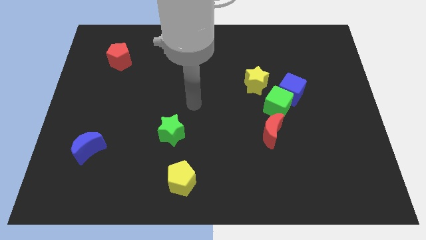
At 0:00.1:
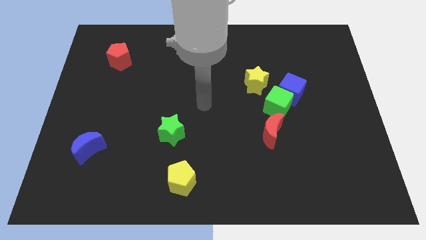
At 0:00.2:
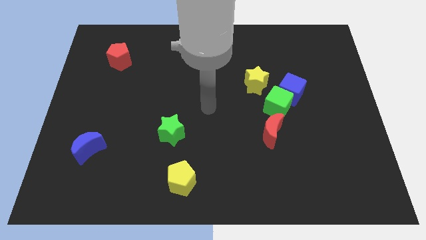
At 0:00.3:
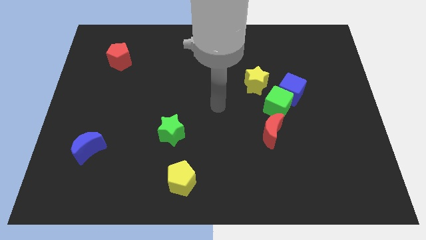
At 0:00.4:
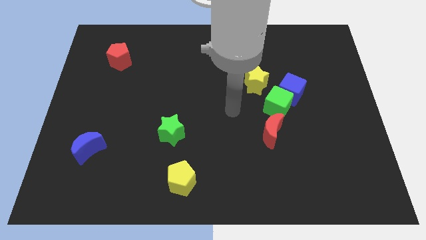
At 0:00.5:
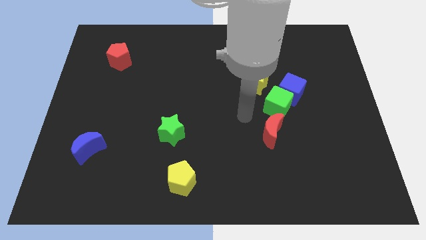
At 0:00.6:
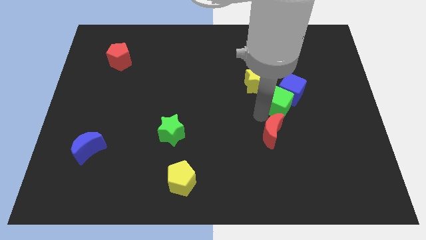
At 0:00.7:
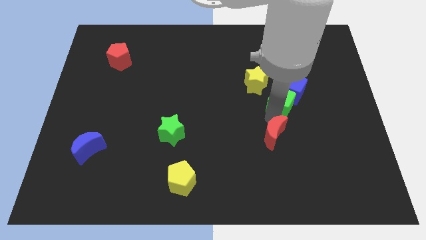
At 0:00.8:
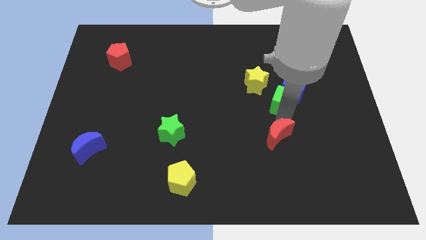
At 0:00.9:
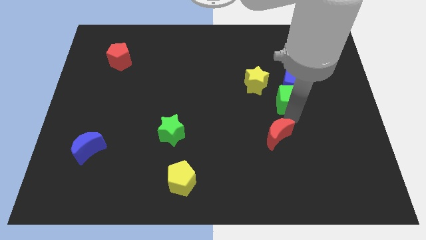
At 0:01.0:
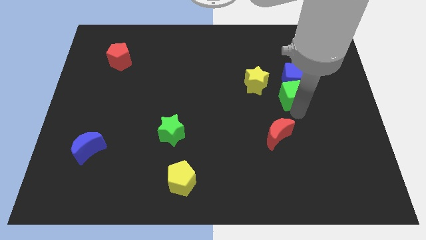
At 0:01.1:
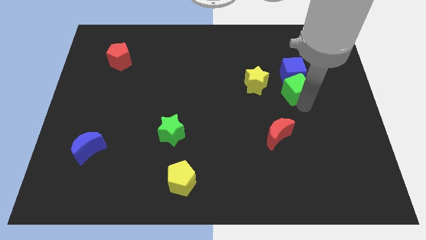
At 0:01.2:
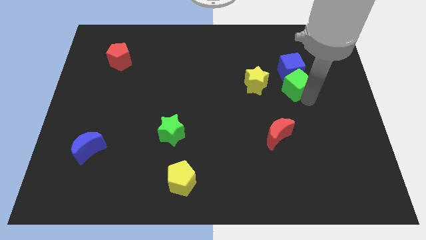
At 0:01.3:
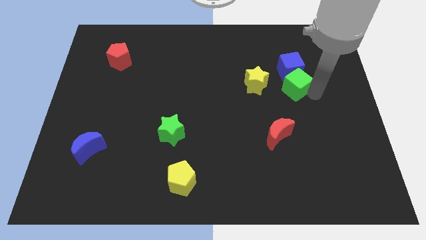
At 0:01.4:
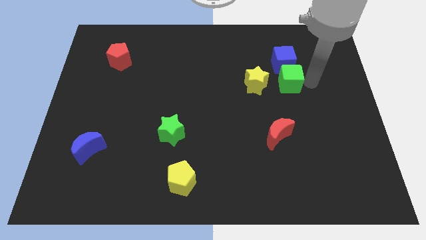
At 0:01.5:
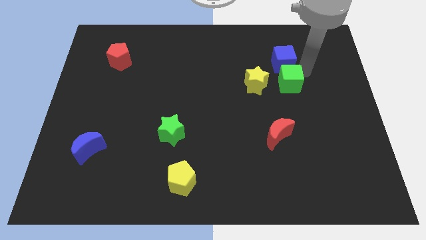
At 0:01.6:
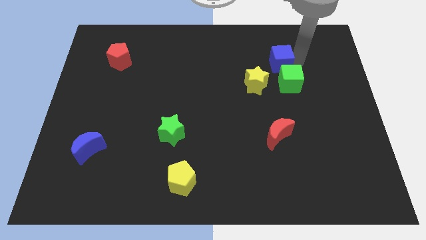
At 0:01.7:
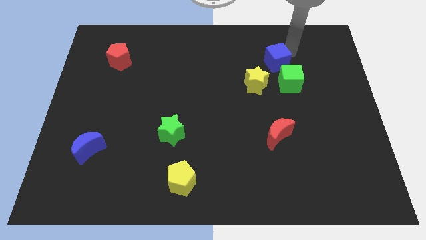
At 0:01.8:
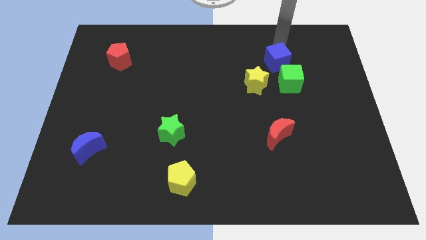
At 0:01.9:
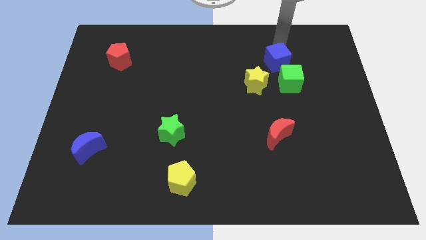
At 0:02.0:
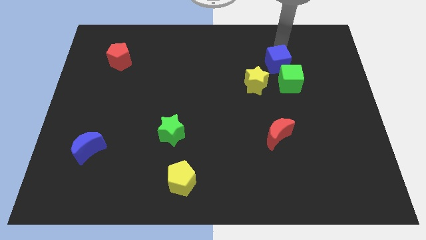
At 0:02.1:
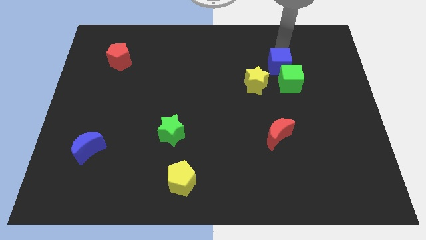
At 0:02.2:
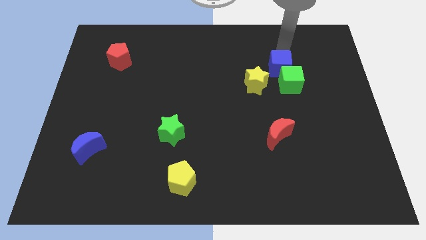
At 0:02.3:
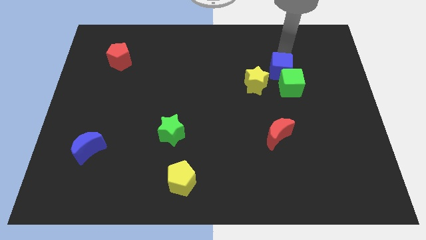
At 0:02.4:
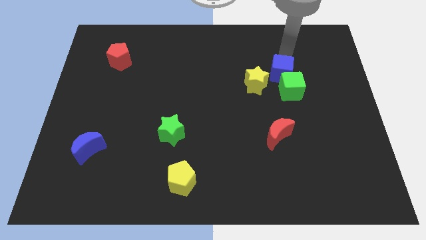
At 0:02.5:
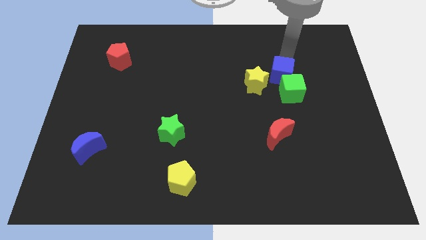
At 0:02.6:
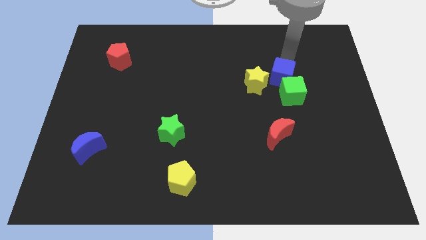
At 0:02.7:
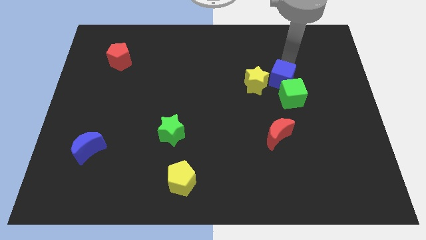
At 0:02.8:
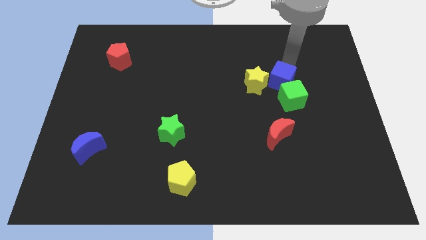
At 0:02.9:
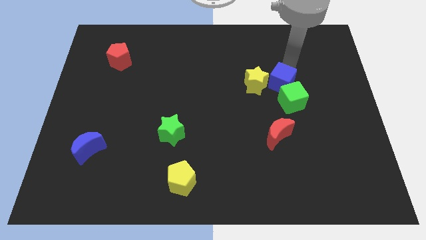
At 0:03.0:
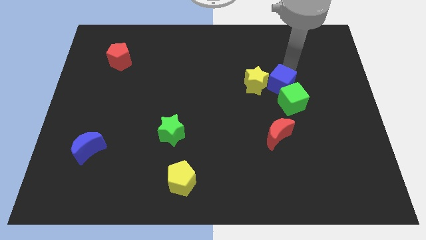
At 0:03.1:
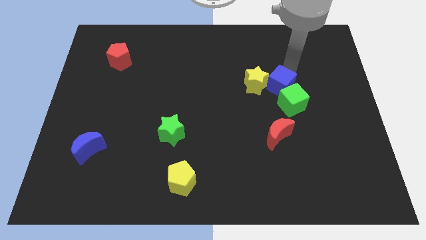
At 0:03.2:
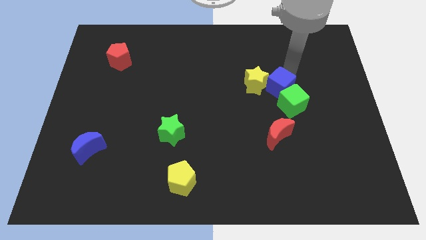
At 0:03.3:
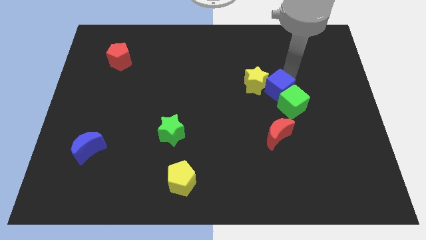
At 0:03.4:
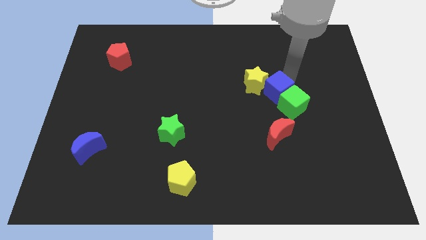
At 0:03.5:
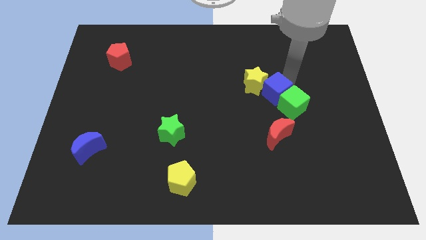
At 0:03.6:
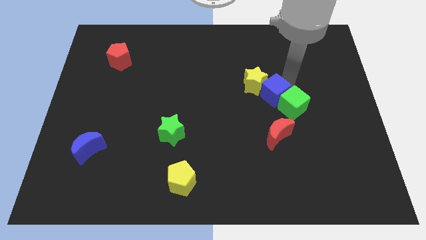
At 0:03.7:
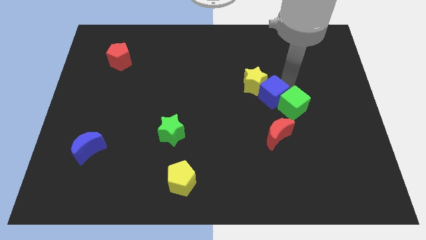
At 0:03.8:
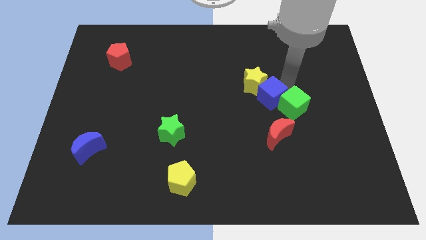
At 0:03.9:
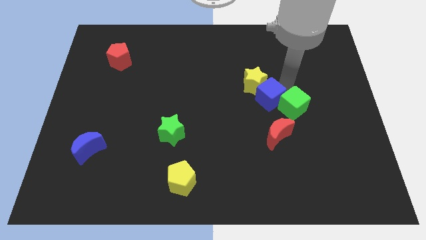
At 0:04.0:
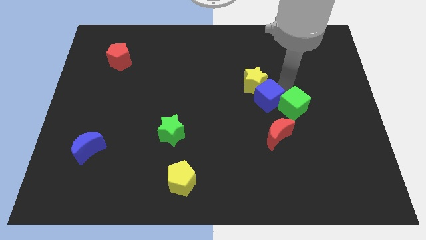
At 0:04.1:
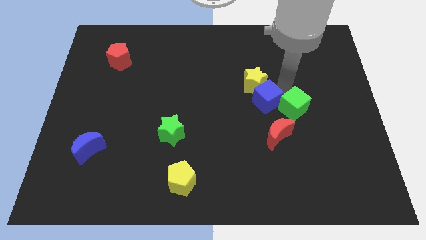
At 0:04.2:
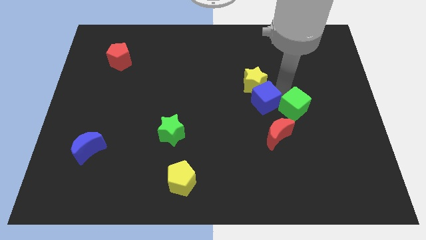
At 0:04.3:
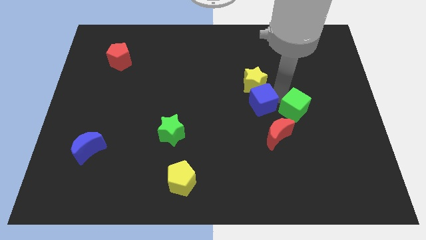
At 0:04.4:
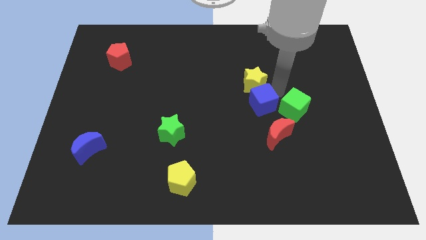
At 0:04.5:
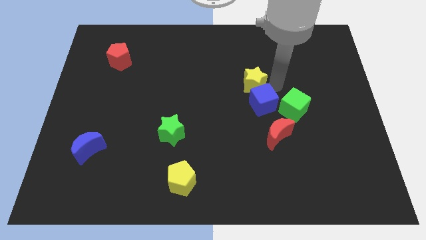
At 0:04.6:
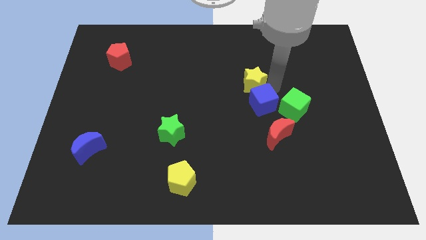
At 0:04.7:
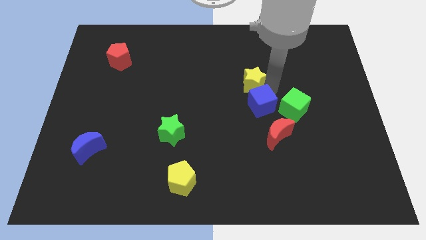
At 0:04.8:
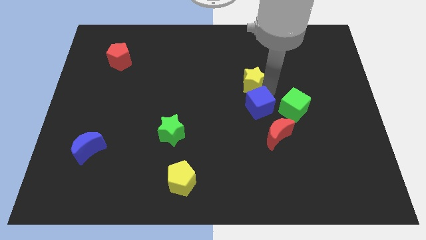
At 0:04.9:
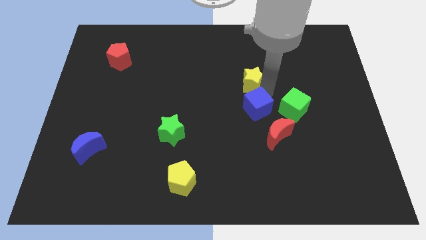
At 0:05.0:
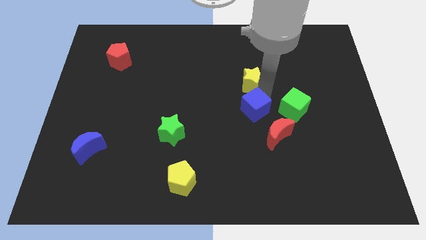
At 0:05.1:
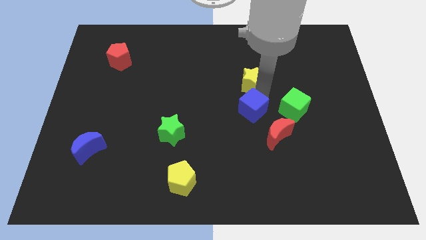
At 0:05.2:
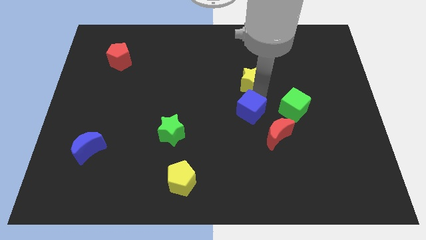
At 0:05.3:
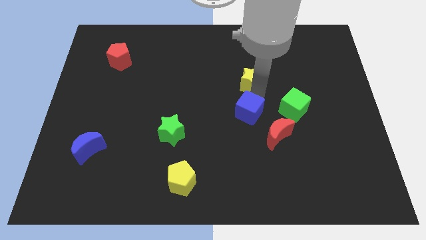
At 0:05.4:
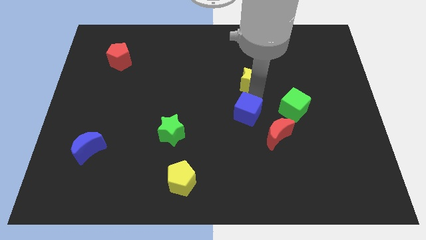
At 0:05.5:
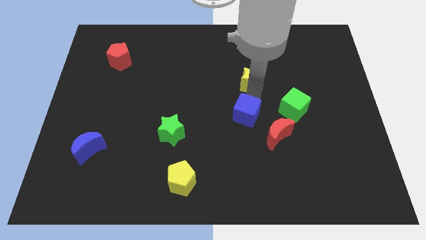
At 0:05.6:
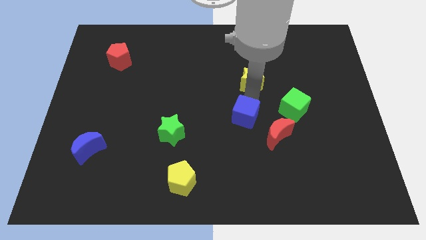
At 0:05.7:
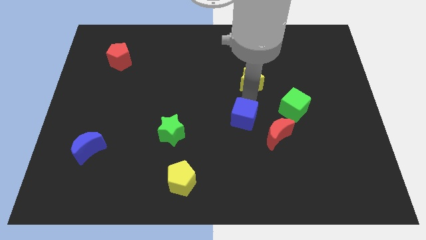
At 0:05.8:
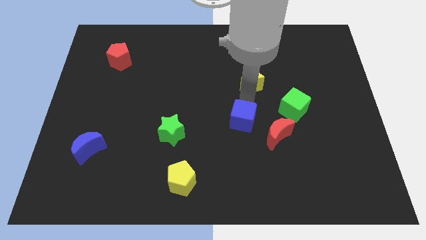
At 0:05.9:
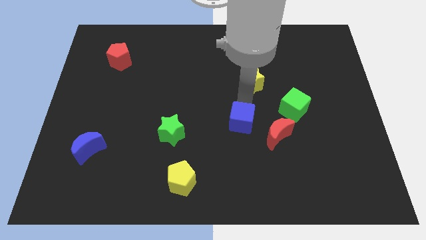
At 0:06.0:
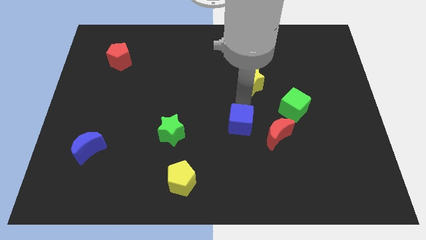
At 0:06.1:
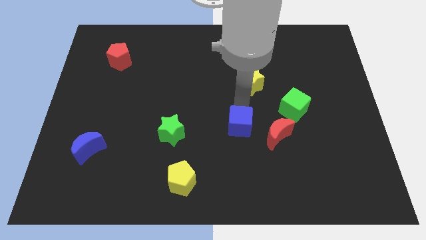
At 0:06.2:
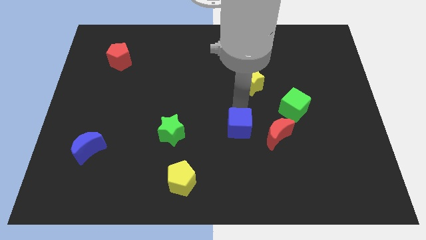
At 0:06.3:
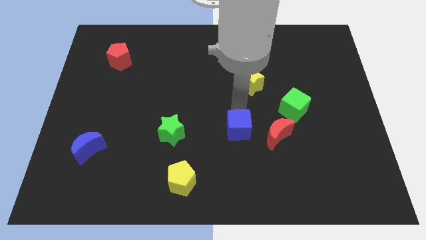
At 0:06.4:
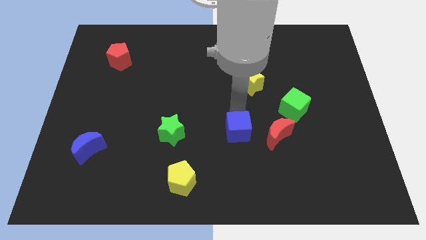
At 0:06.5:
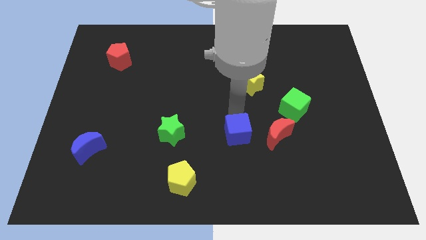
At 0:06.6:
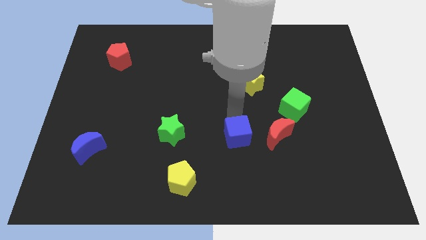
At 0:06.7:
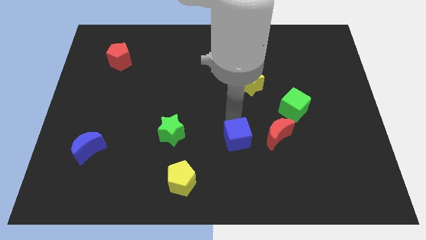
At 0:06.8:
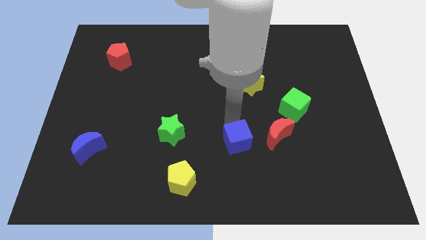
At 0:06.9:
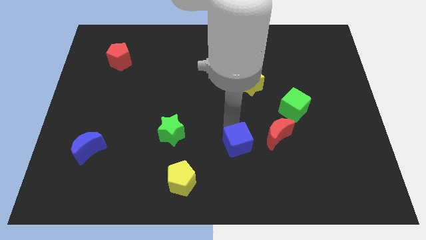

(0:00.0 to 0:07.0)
move the blue cube to the bottom left of the red moon
